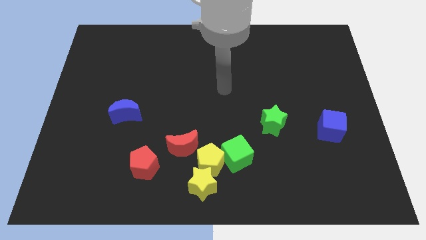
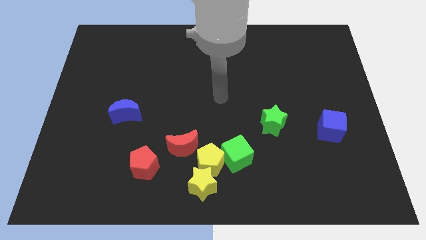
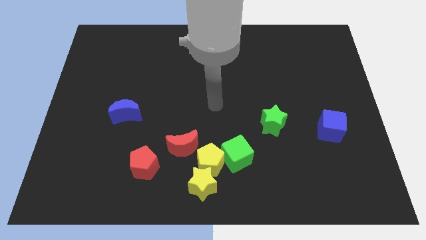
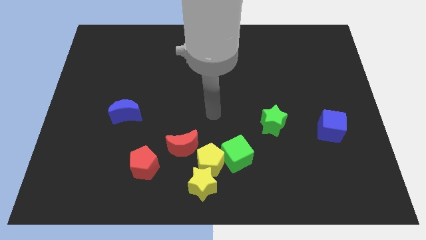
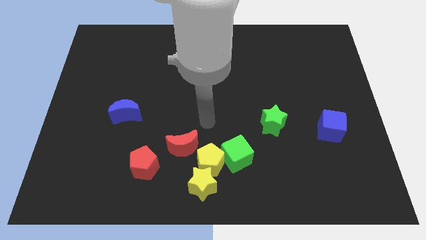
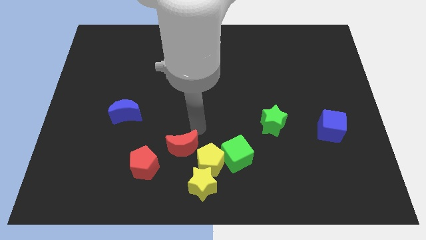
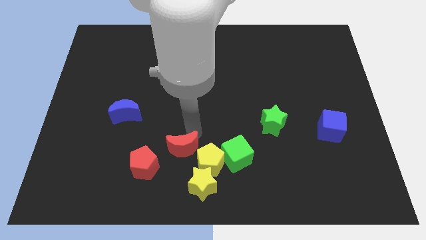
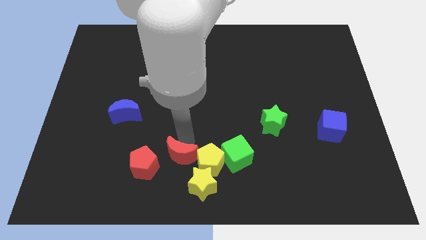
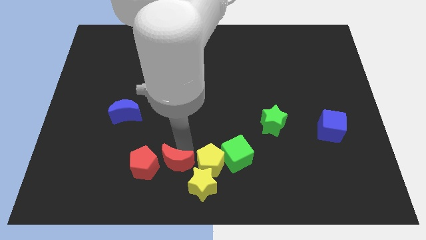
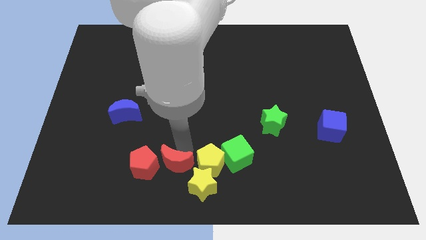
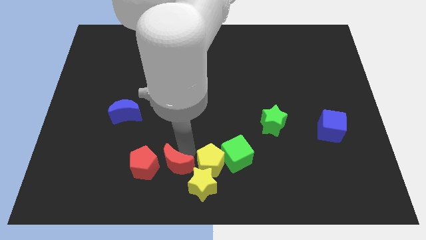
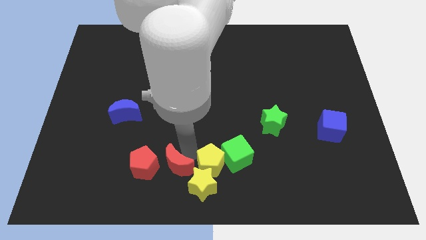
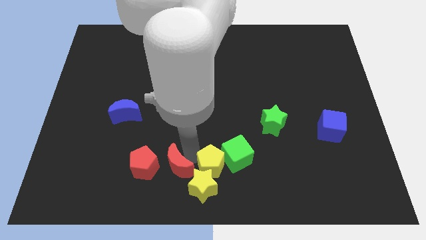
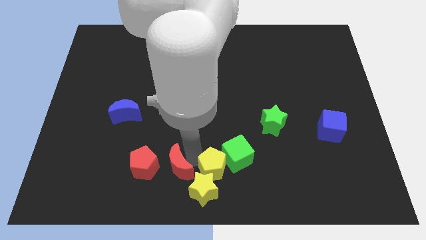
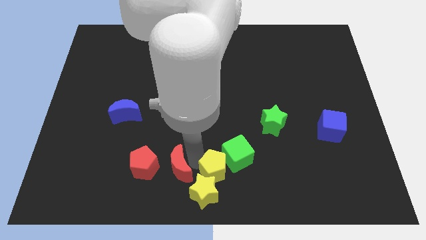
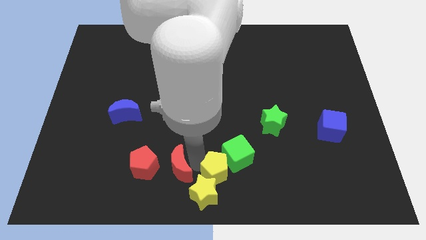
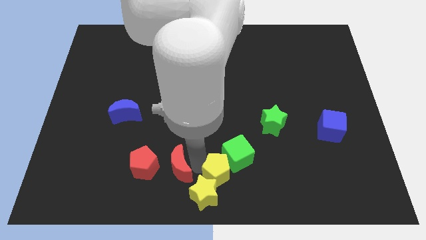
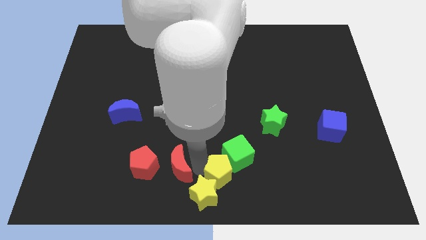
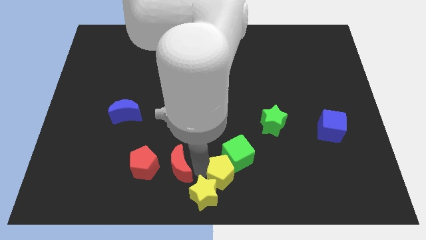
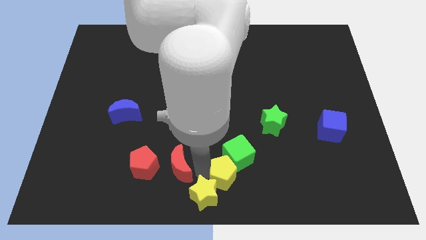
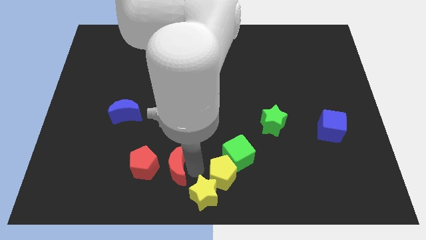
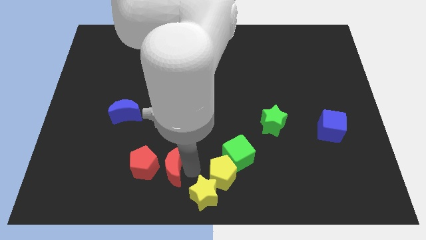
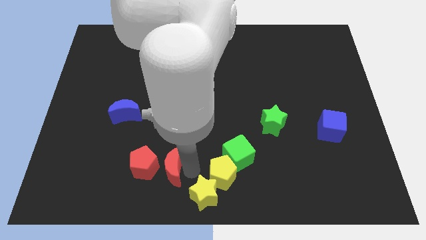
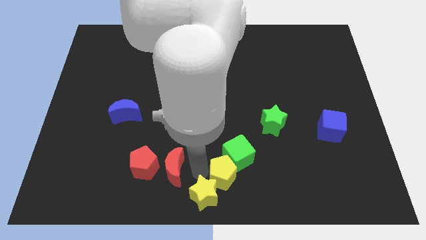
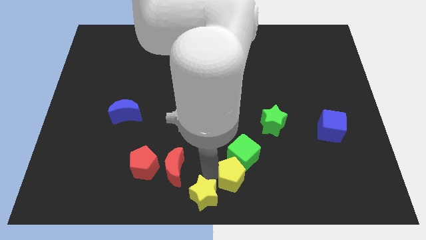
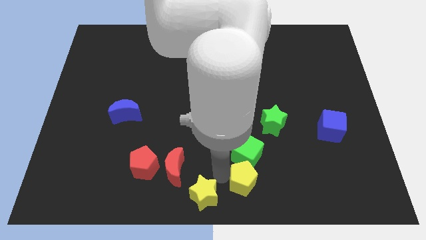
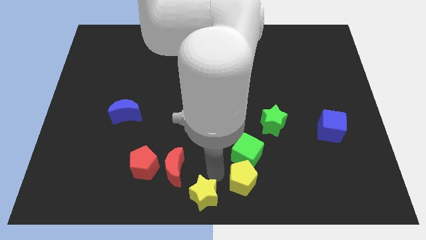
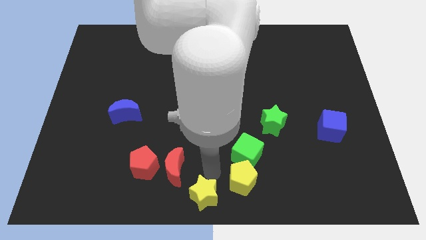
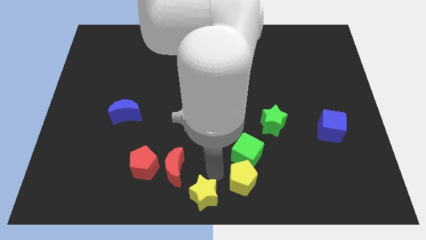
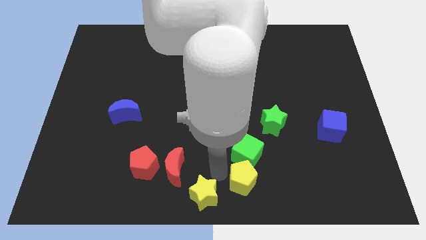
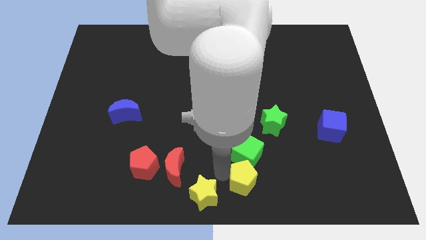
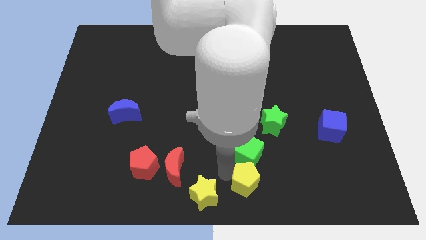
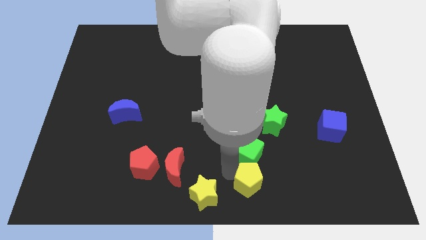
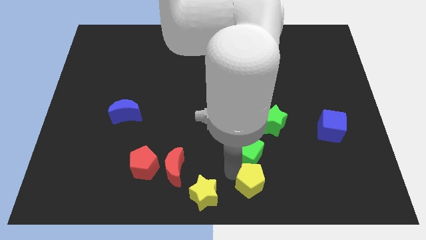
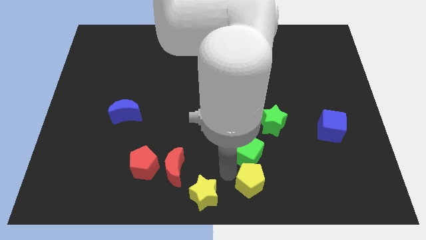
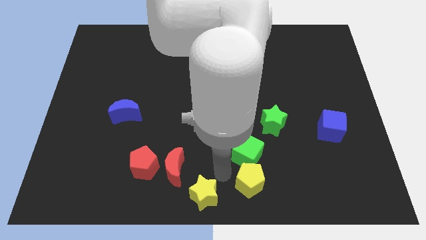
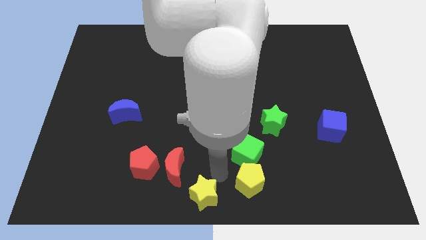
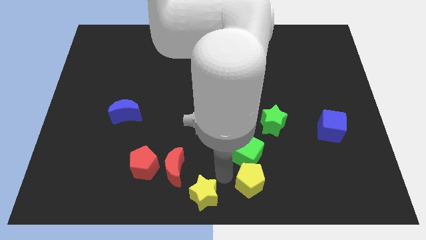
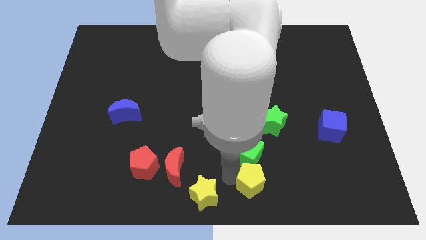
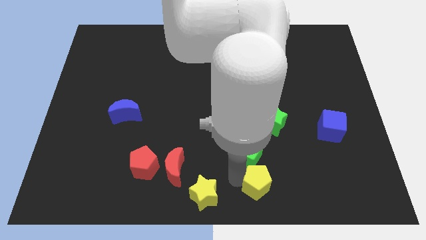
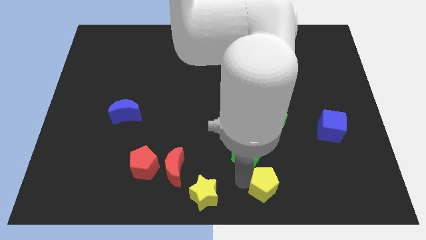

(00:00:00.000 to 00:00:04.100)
separate the yellow pentagon from the yellow star, green cube, and red moon

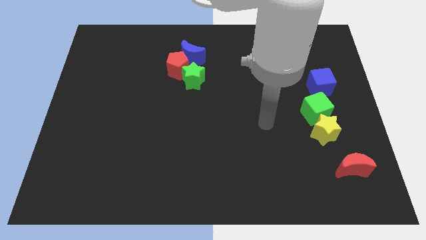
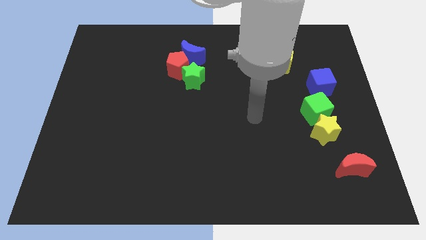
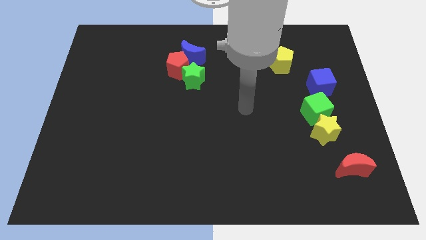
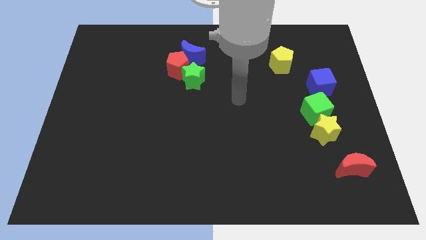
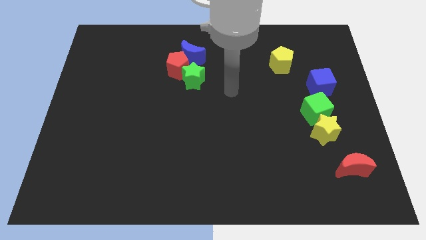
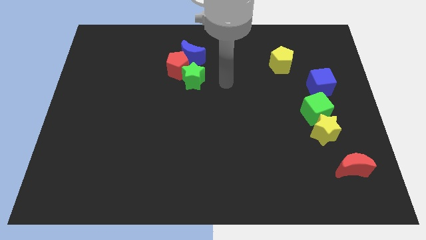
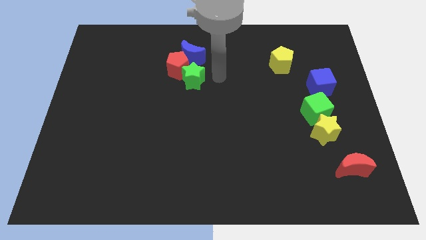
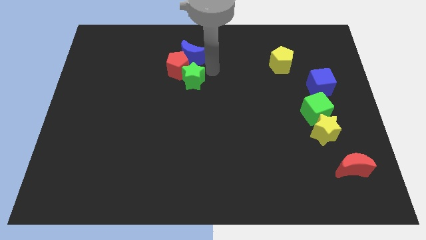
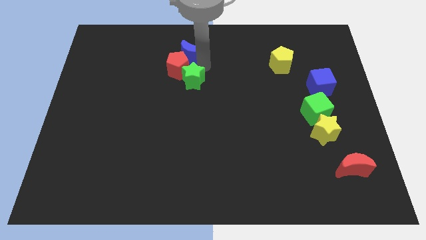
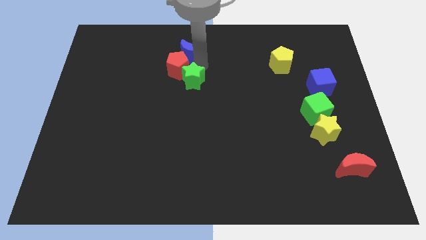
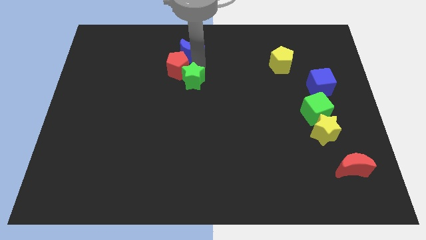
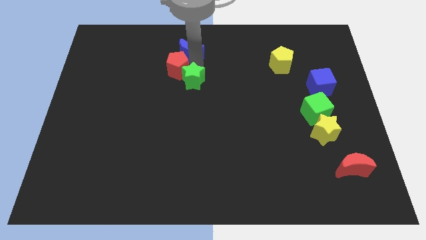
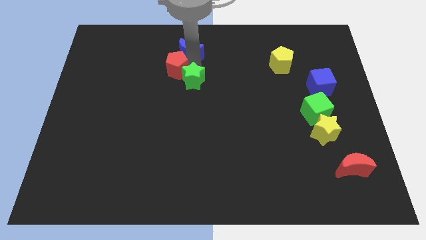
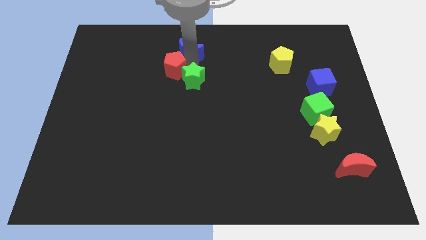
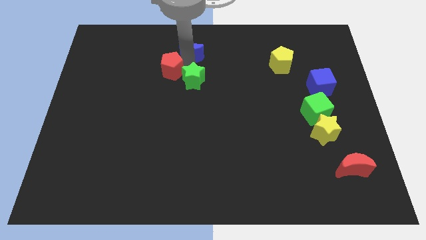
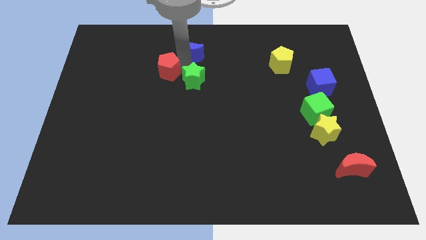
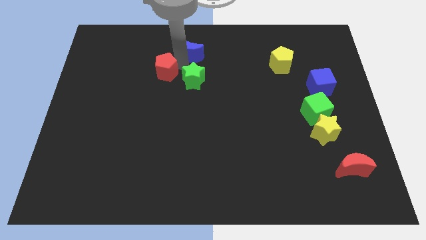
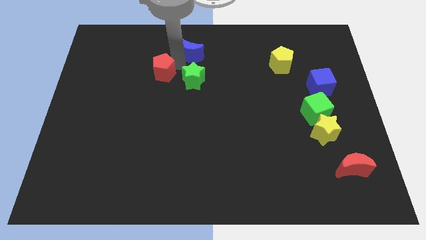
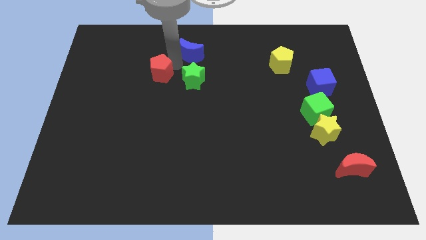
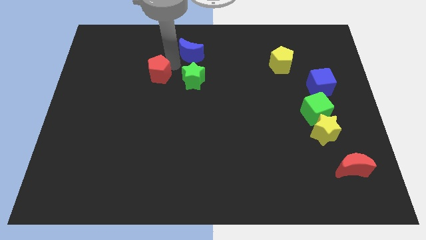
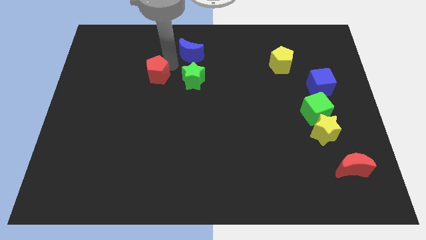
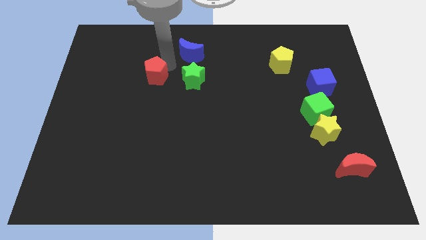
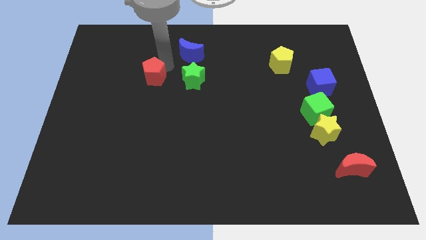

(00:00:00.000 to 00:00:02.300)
pull the red pentagon apart from the blue moon and green star

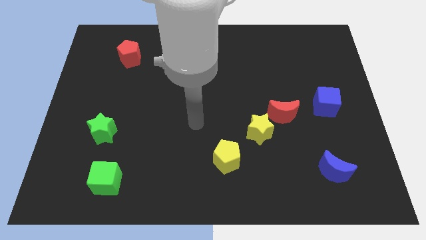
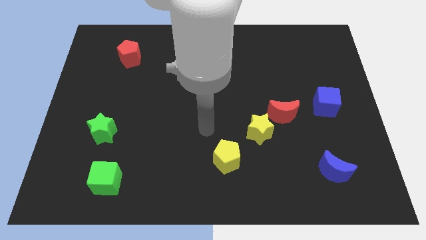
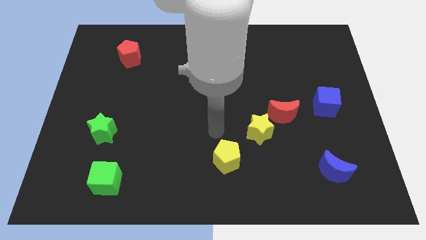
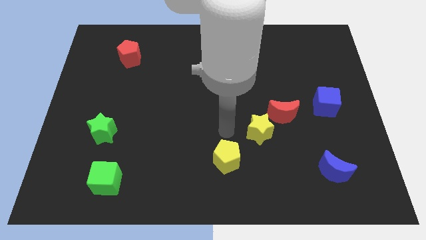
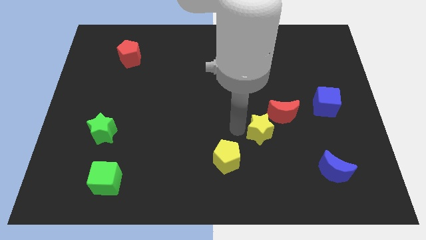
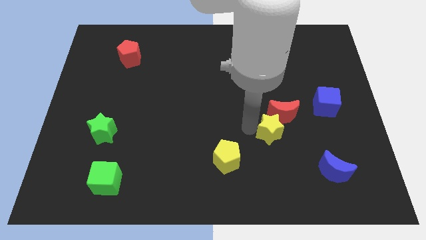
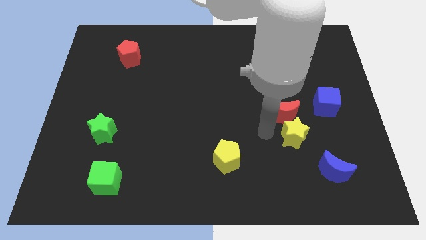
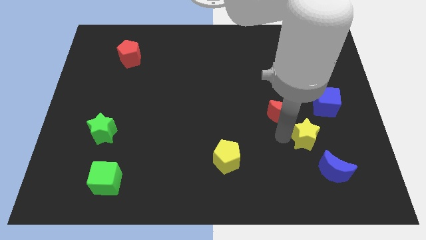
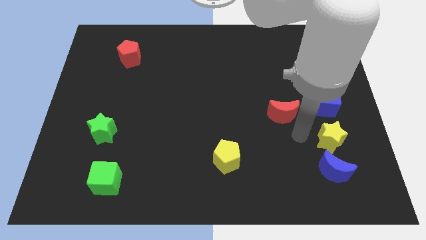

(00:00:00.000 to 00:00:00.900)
move the red moon away from the yellow star

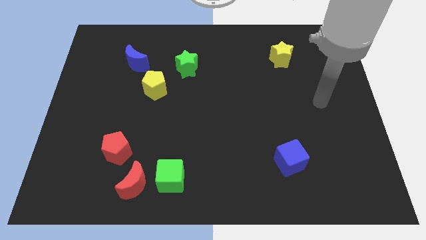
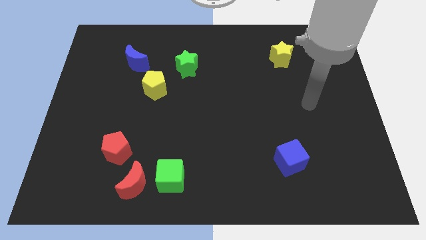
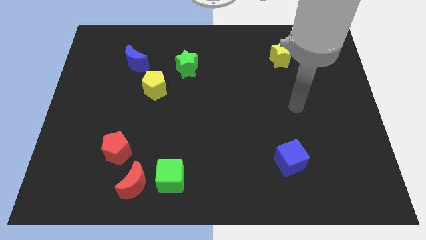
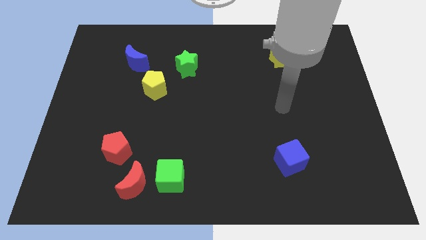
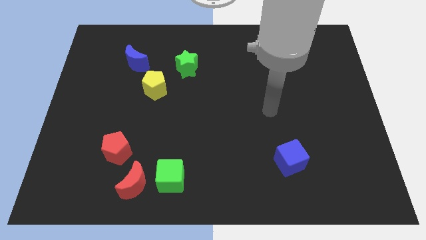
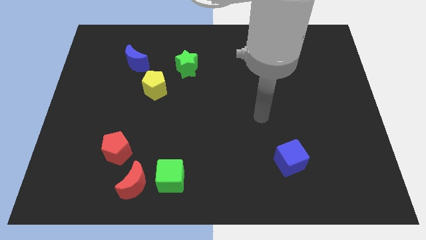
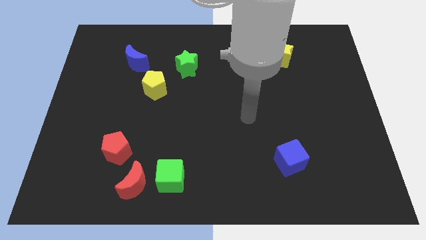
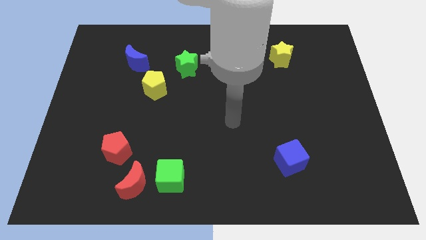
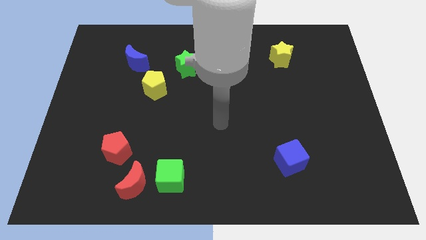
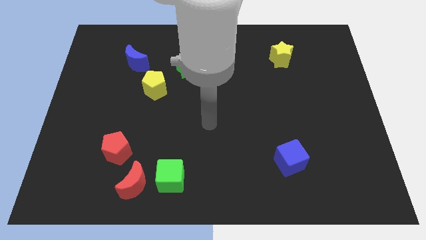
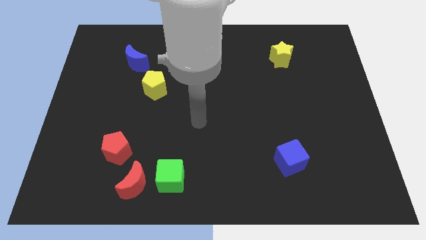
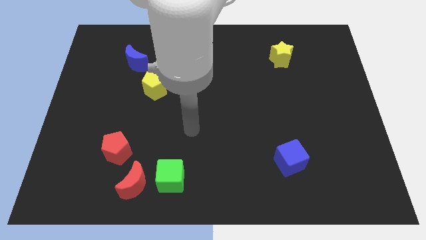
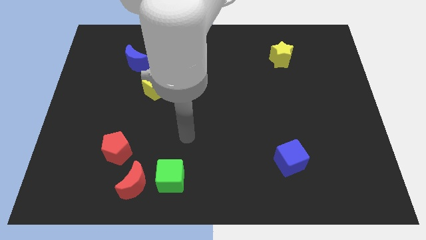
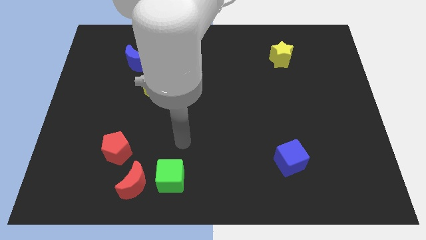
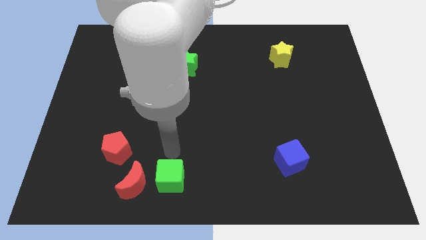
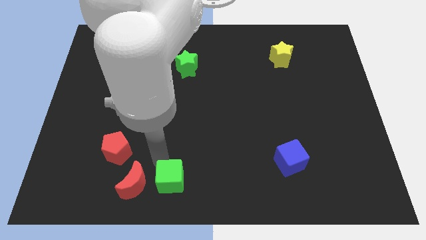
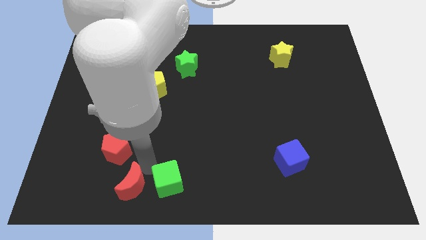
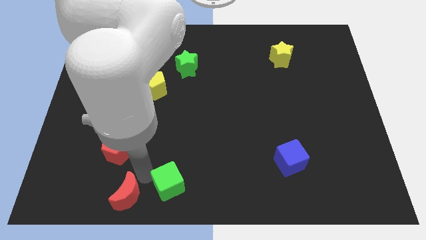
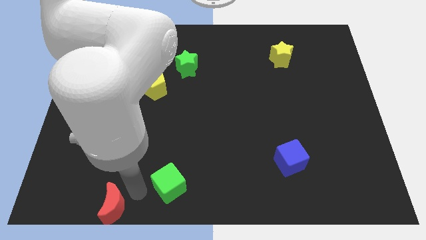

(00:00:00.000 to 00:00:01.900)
move the green cube away from the red moon

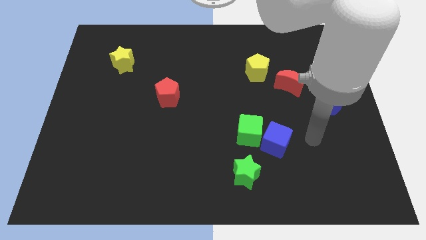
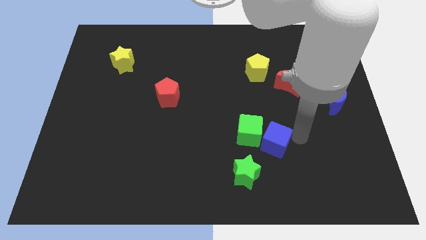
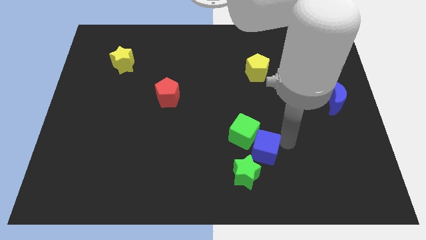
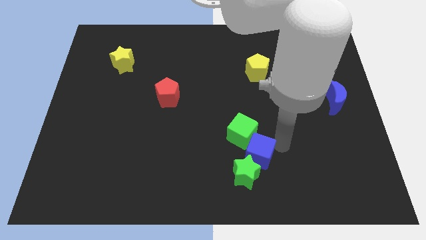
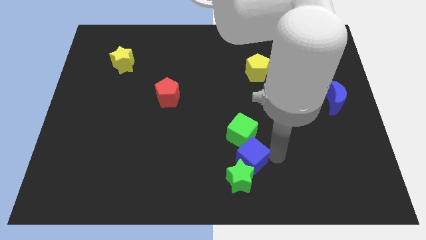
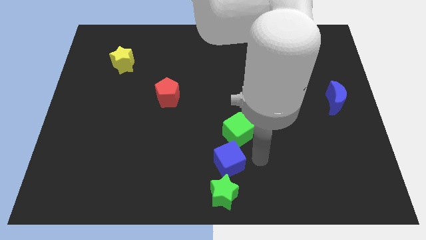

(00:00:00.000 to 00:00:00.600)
pull the green cube apart from the blue cube and green star
